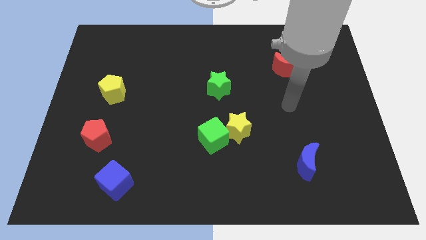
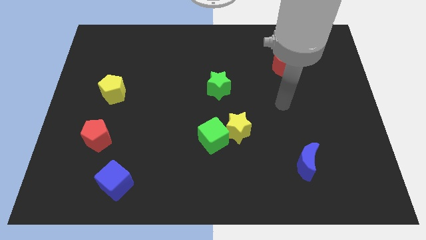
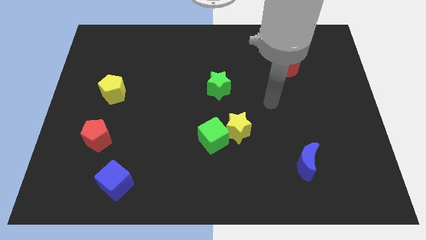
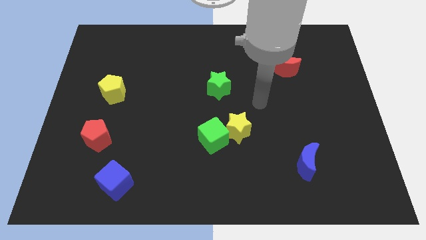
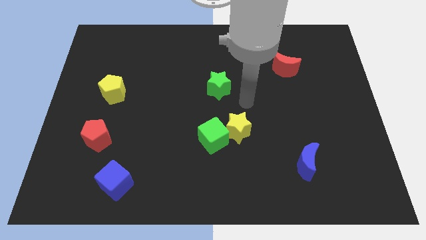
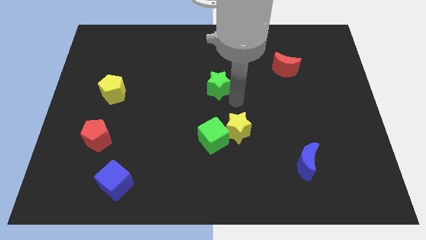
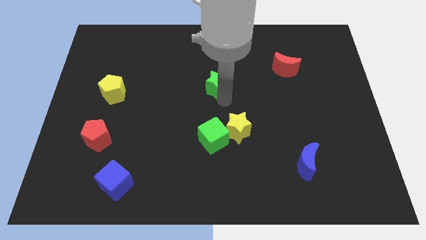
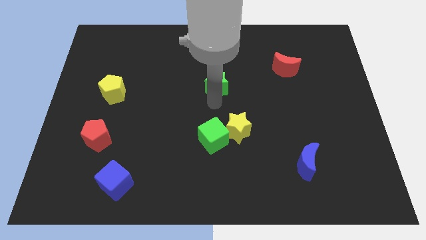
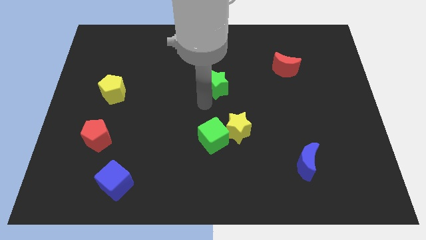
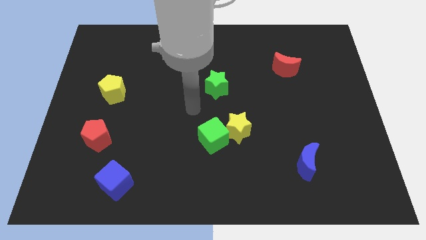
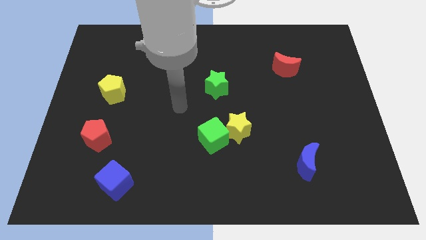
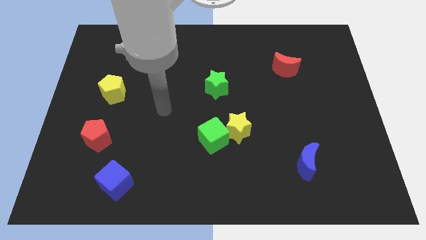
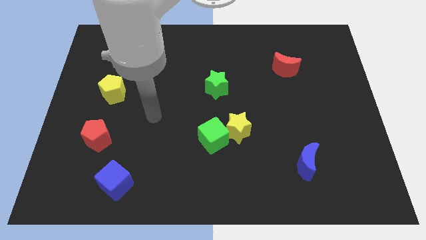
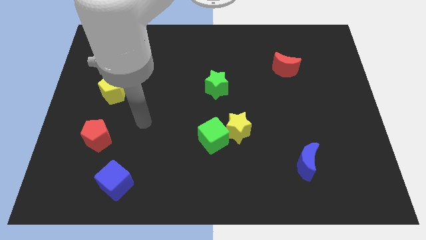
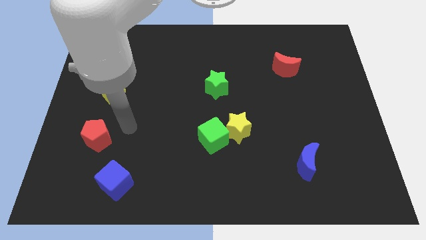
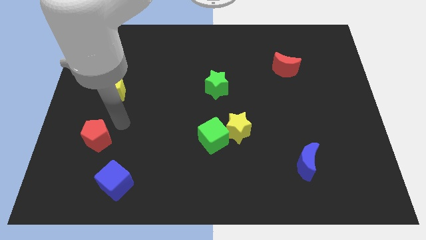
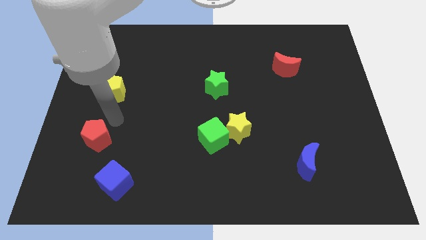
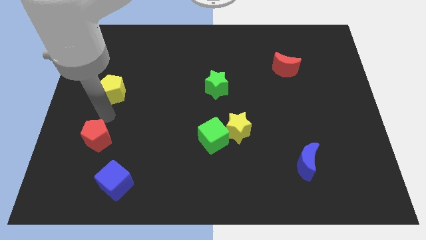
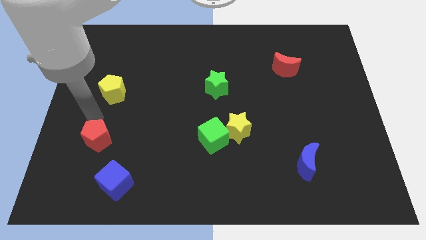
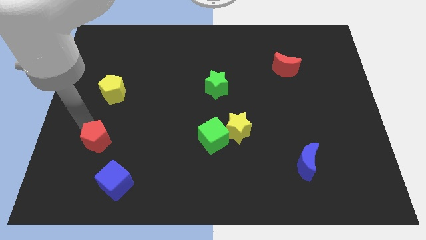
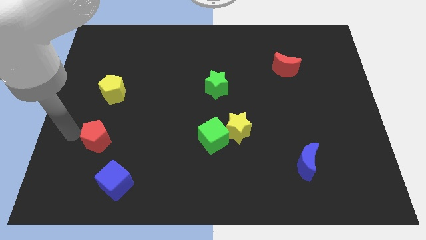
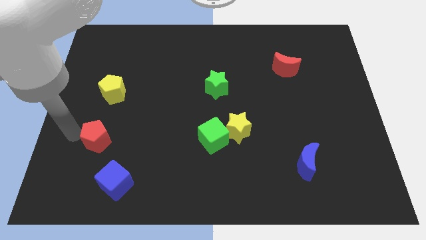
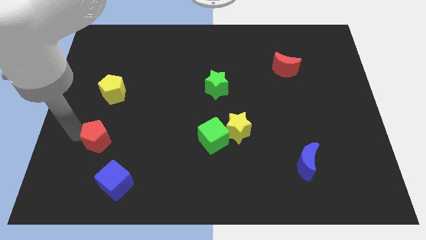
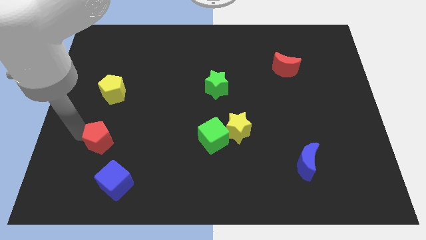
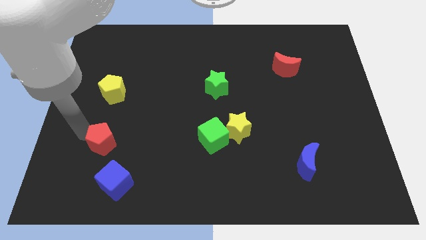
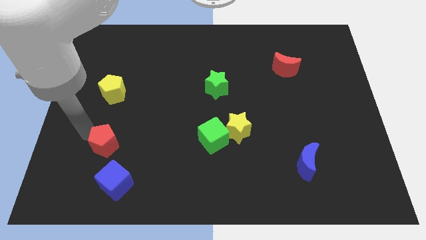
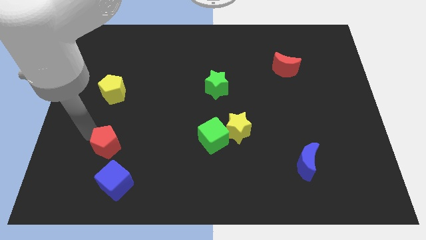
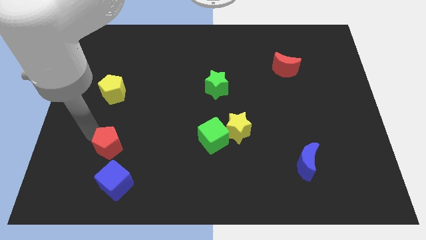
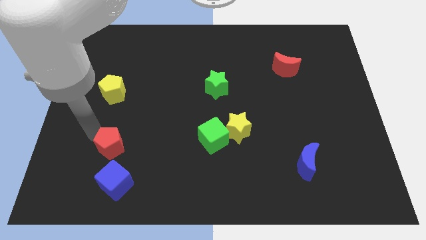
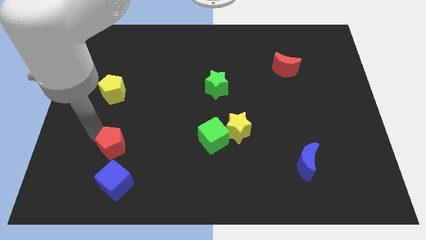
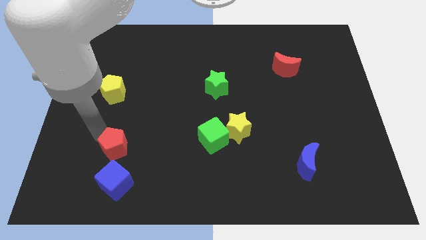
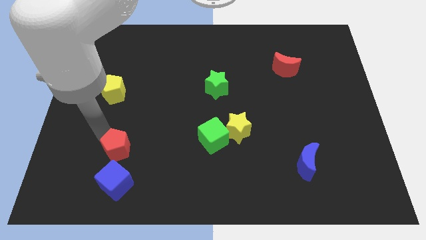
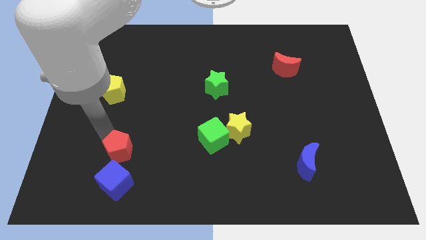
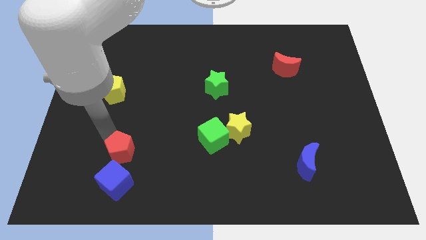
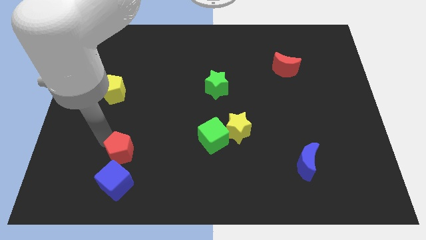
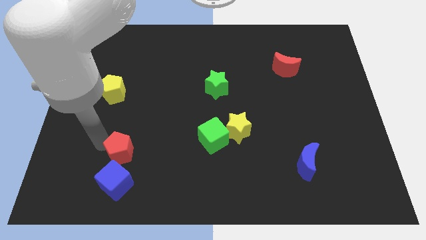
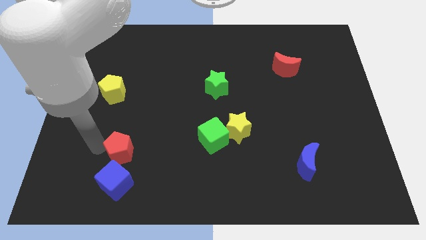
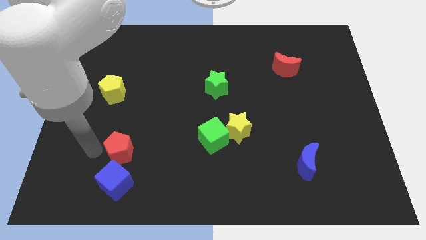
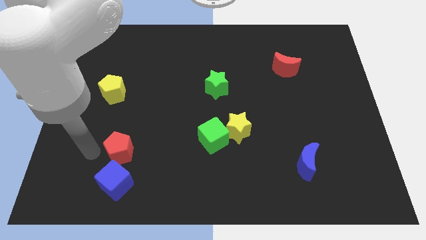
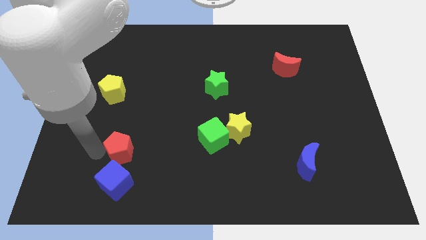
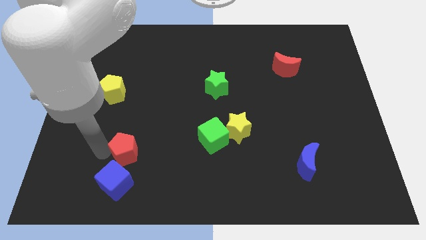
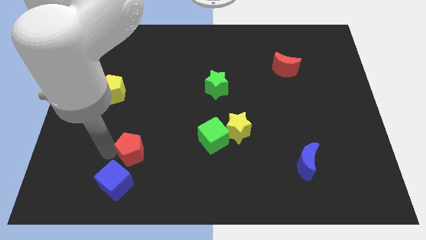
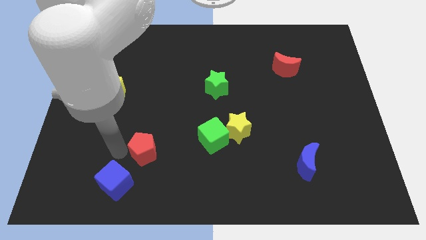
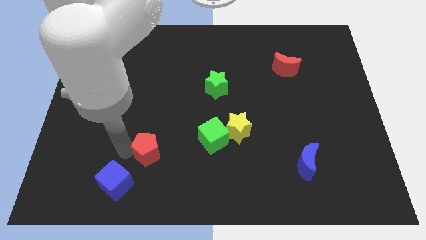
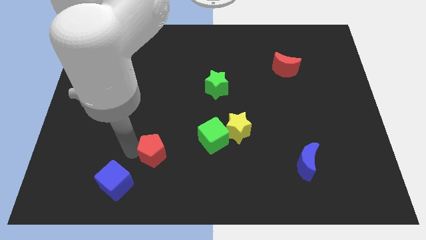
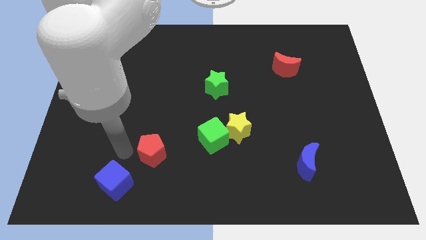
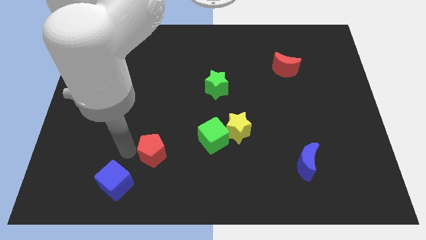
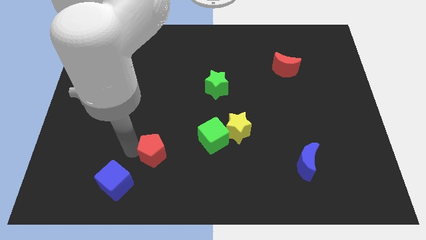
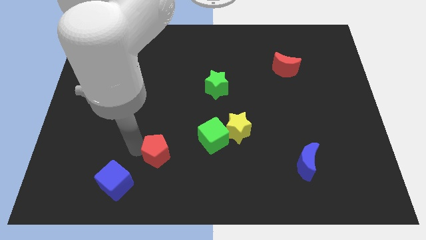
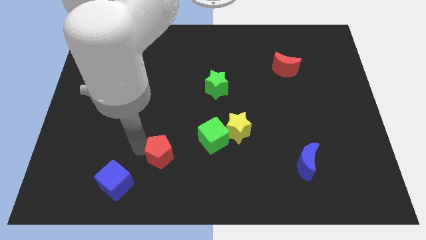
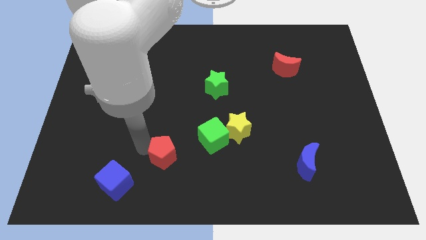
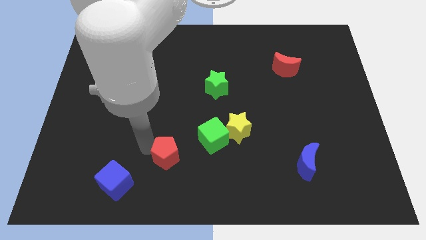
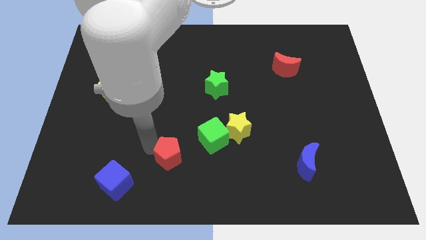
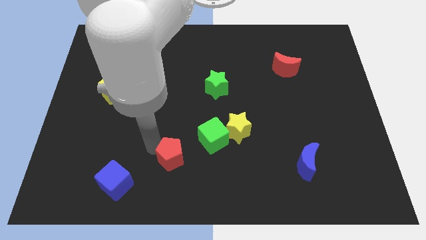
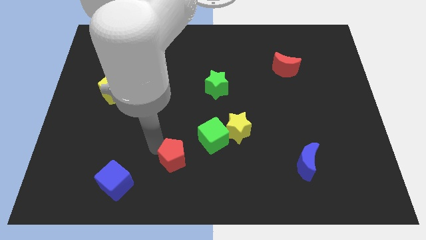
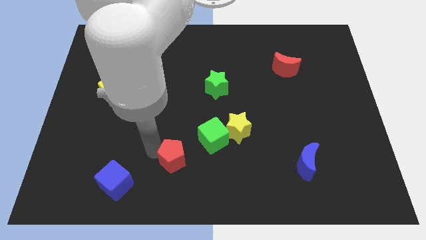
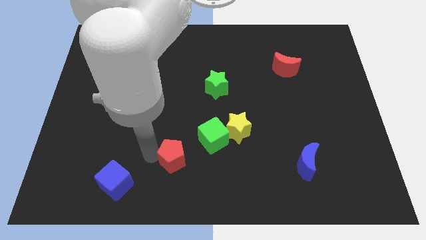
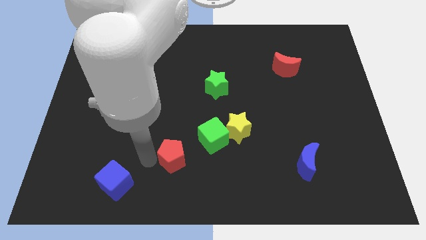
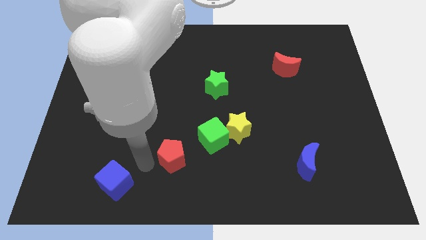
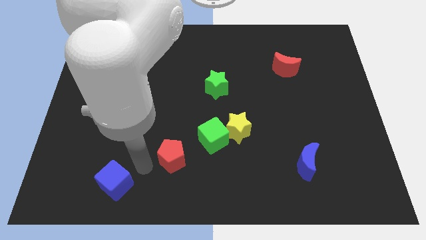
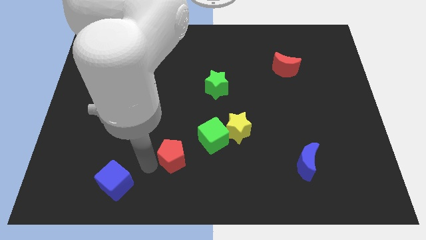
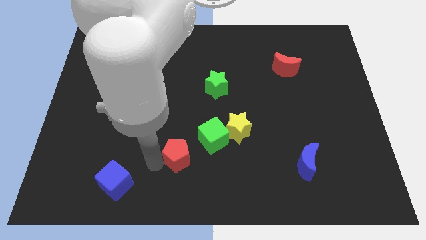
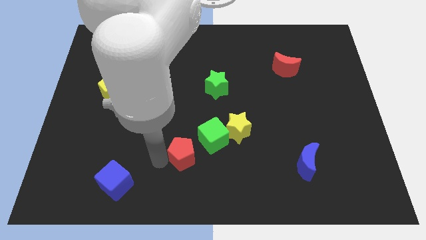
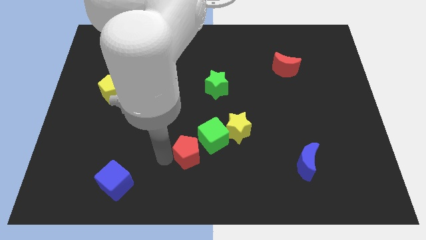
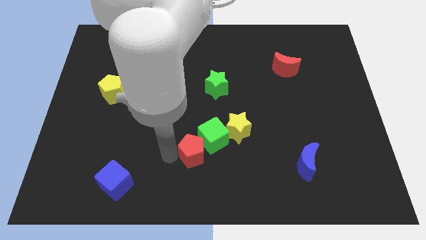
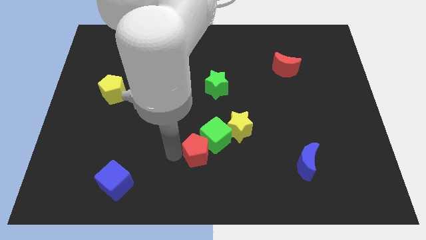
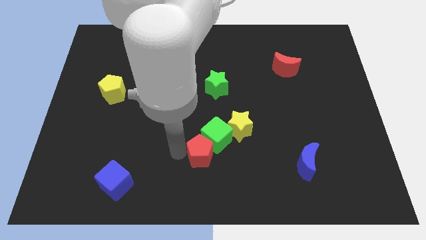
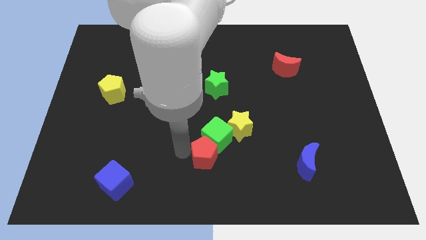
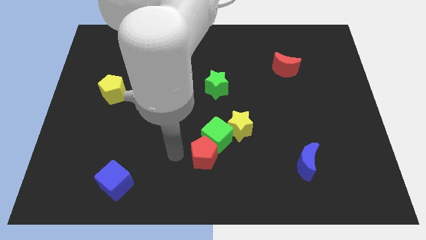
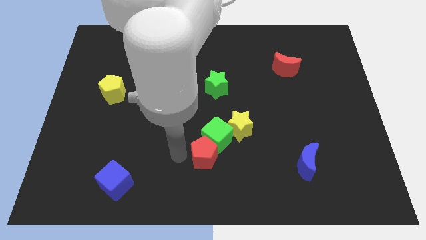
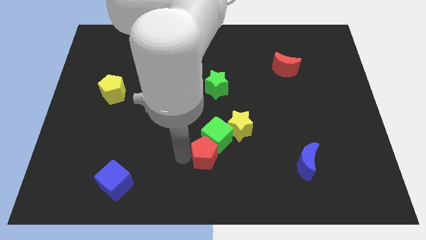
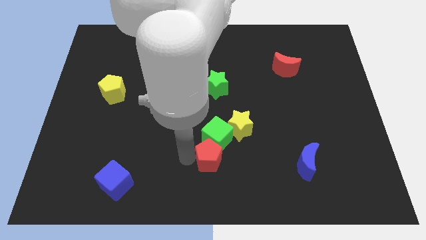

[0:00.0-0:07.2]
move the red pentagon to the bottom right side of the green cube
